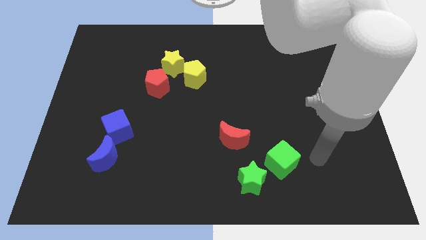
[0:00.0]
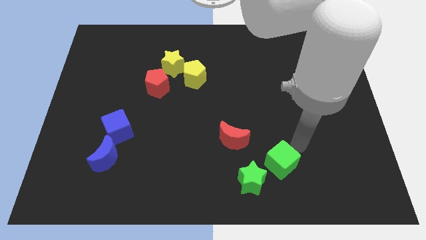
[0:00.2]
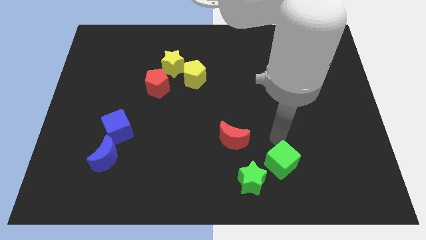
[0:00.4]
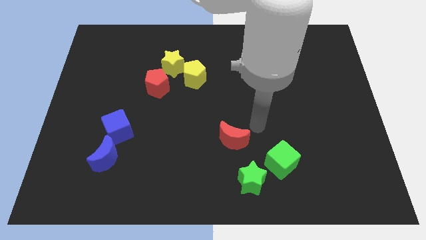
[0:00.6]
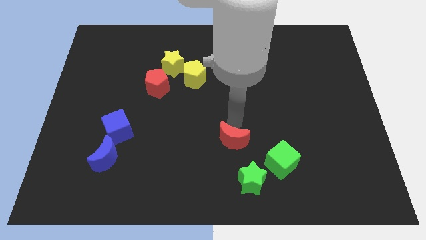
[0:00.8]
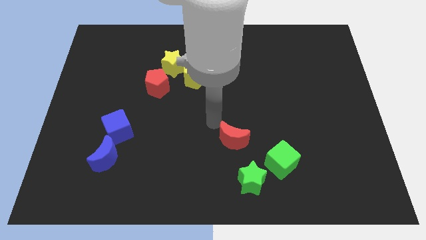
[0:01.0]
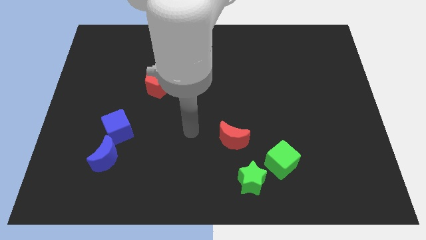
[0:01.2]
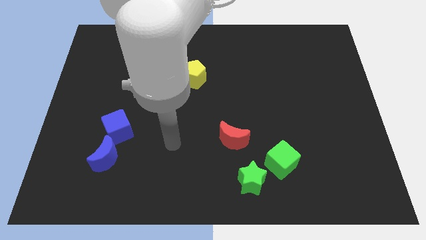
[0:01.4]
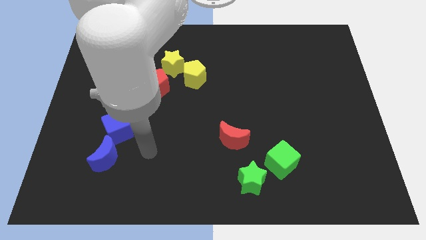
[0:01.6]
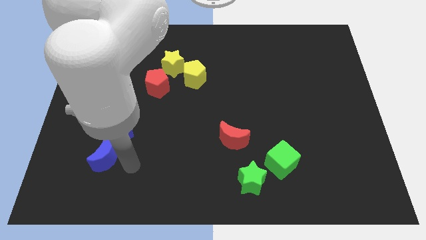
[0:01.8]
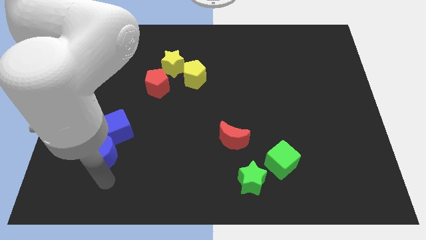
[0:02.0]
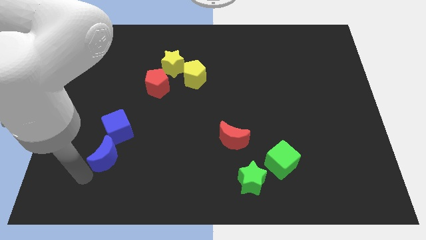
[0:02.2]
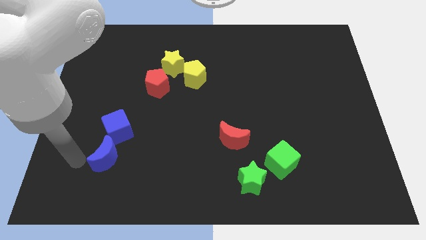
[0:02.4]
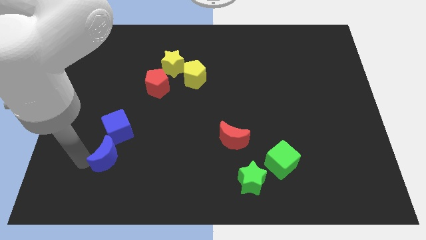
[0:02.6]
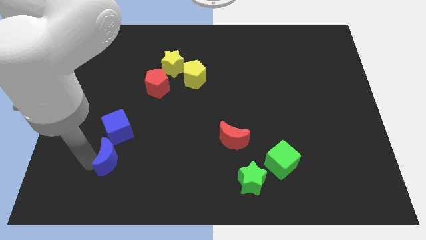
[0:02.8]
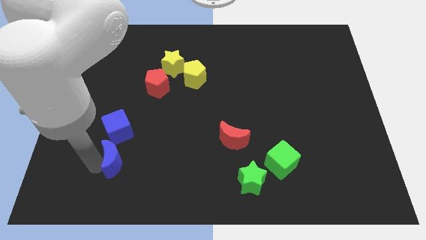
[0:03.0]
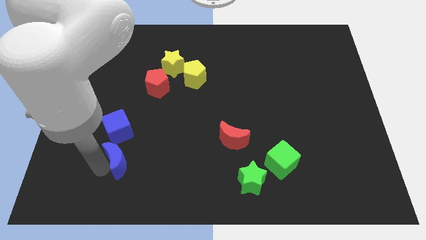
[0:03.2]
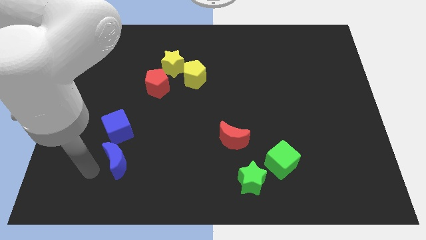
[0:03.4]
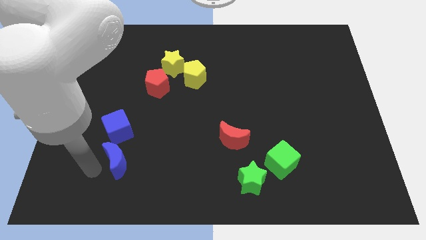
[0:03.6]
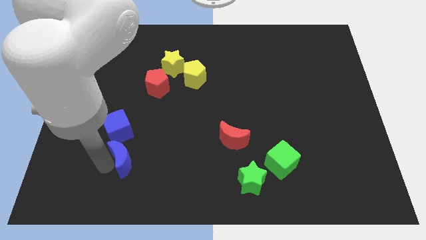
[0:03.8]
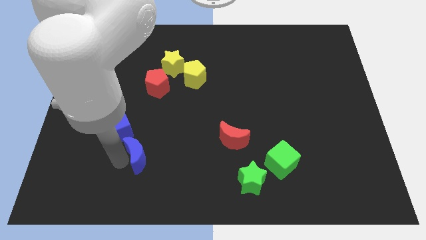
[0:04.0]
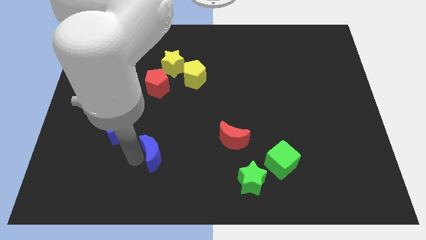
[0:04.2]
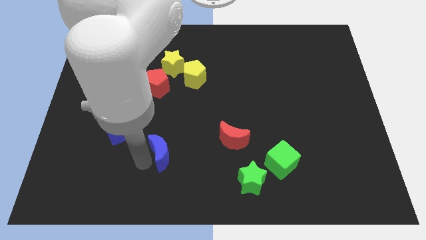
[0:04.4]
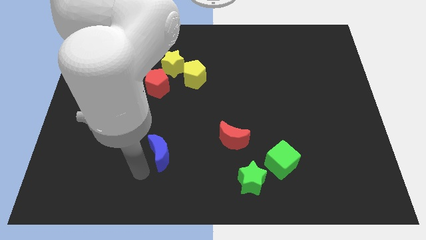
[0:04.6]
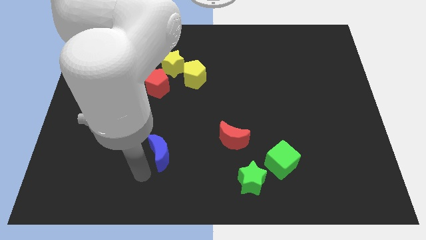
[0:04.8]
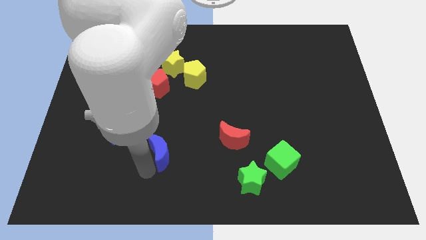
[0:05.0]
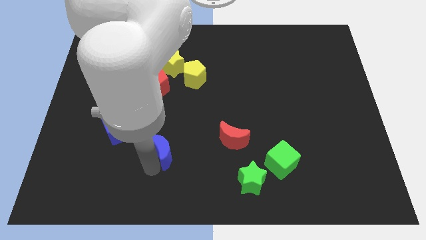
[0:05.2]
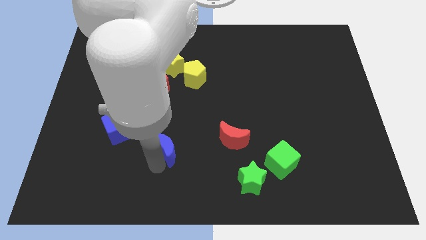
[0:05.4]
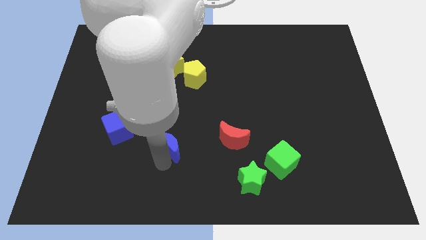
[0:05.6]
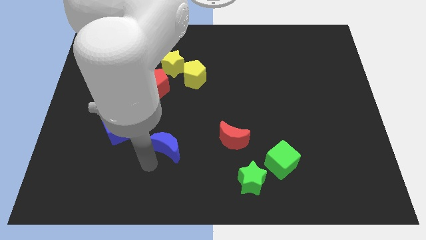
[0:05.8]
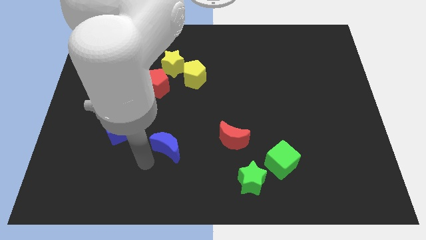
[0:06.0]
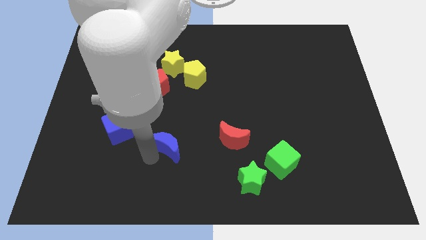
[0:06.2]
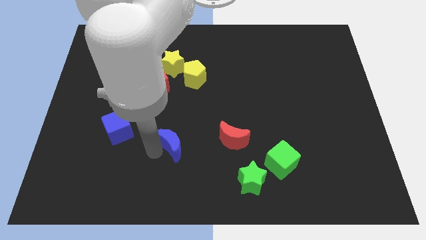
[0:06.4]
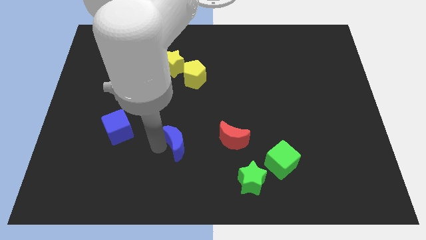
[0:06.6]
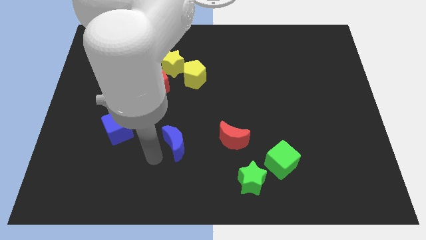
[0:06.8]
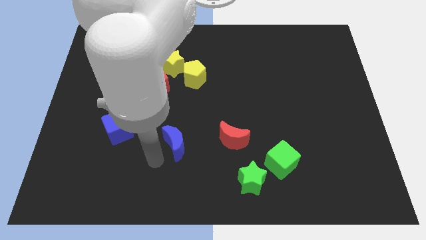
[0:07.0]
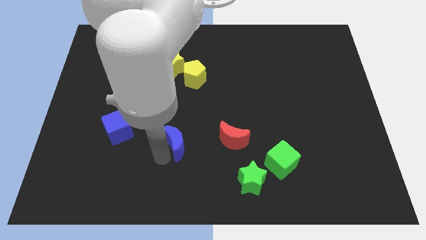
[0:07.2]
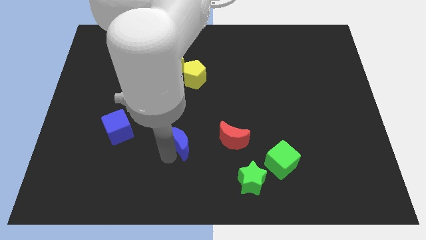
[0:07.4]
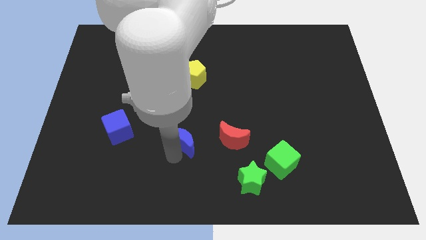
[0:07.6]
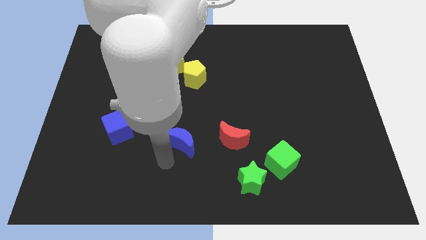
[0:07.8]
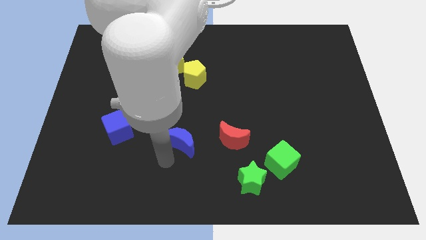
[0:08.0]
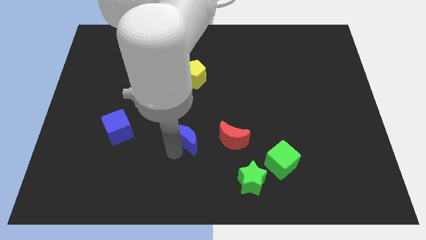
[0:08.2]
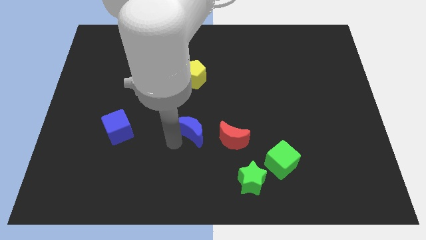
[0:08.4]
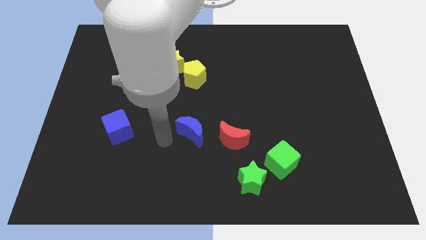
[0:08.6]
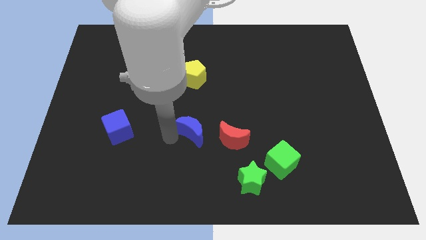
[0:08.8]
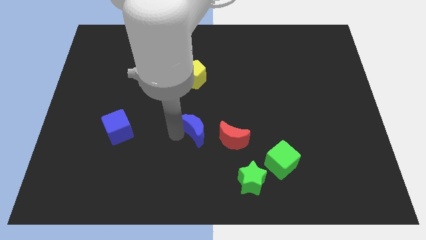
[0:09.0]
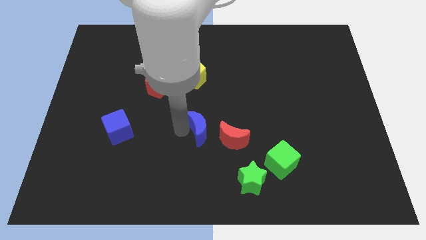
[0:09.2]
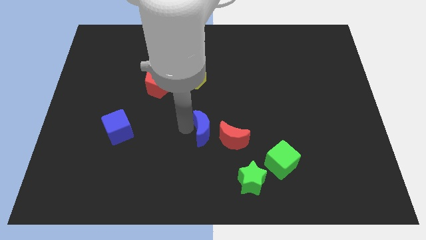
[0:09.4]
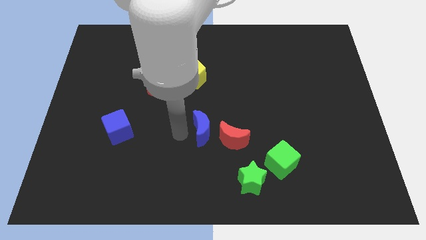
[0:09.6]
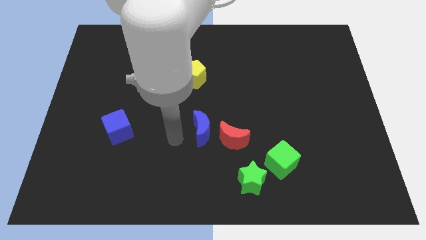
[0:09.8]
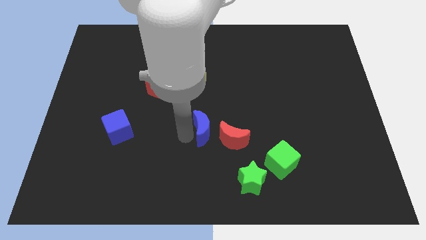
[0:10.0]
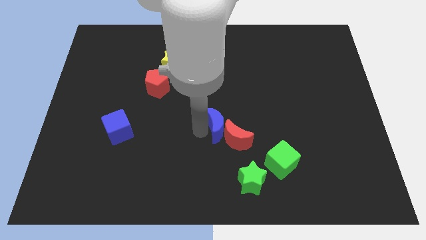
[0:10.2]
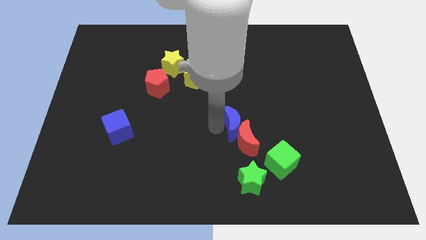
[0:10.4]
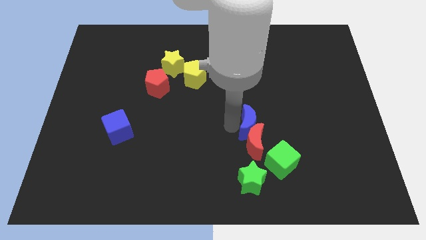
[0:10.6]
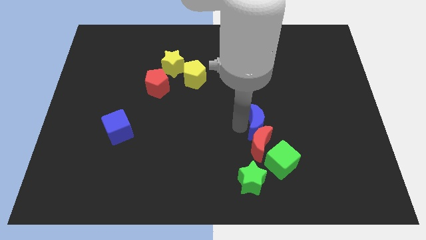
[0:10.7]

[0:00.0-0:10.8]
put the blue moon to the top of the green cube

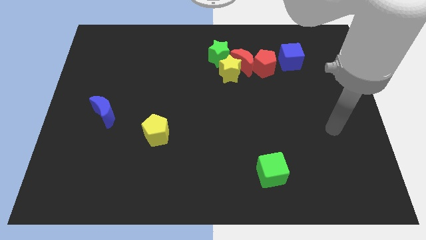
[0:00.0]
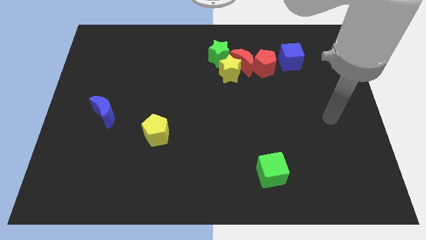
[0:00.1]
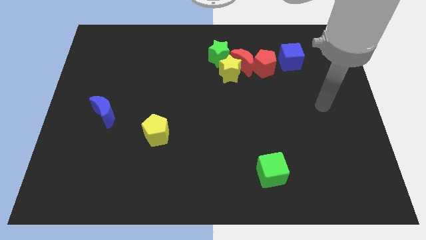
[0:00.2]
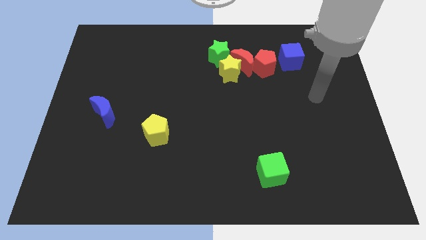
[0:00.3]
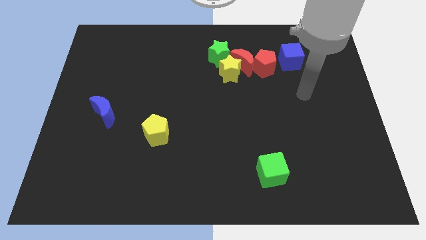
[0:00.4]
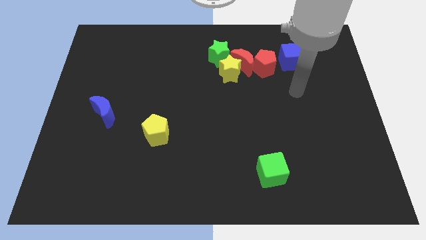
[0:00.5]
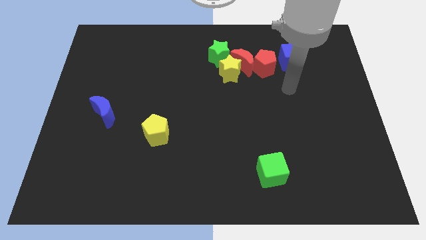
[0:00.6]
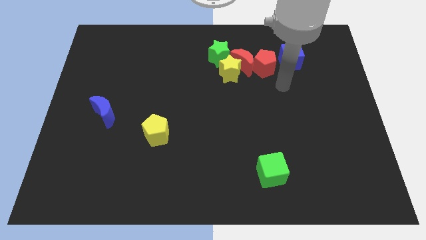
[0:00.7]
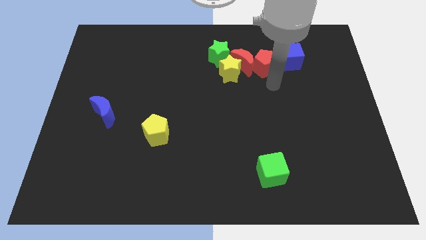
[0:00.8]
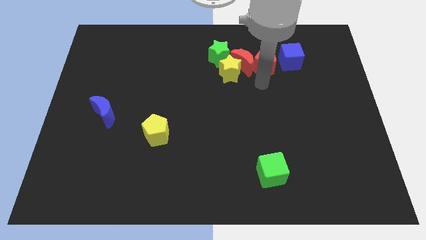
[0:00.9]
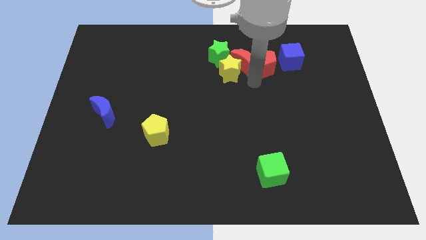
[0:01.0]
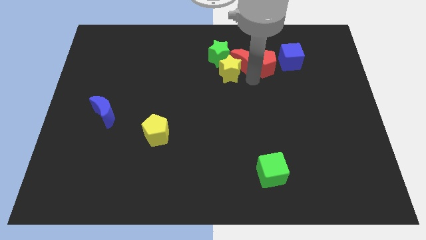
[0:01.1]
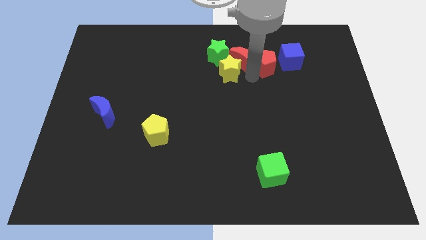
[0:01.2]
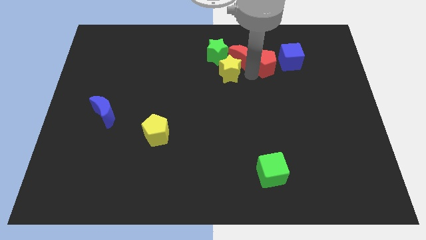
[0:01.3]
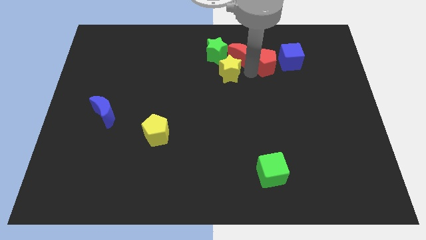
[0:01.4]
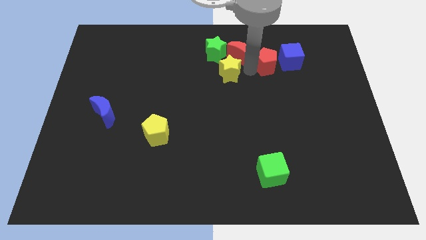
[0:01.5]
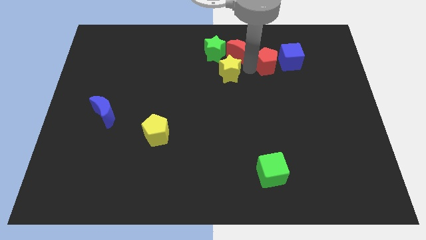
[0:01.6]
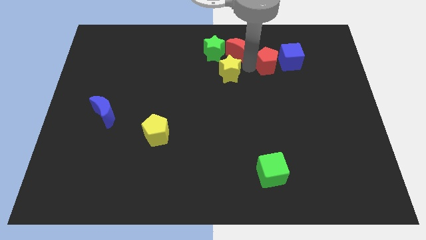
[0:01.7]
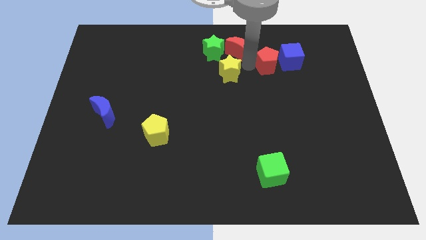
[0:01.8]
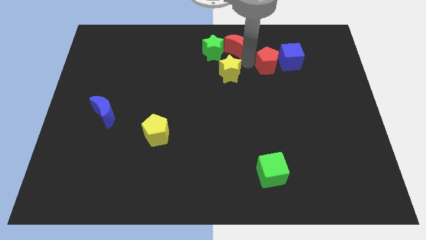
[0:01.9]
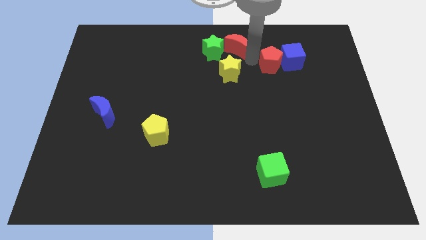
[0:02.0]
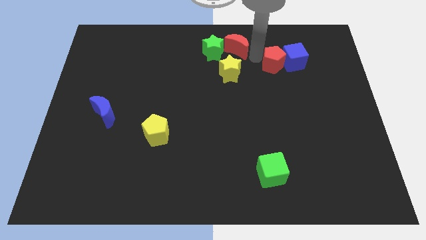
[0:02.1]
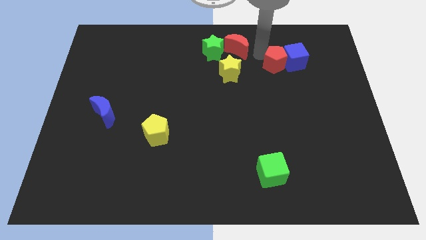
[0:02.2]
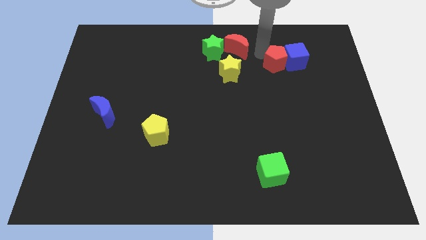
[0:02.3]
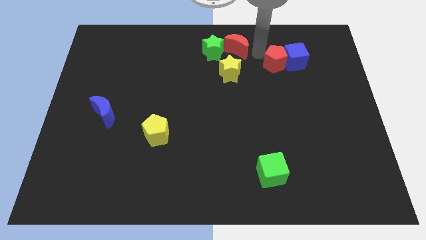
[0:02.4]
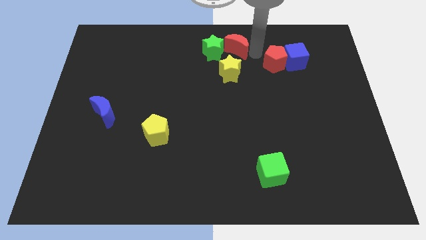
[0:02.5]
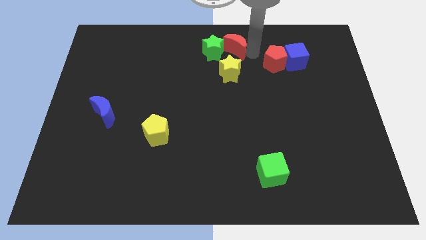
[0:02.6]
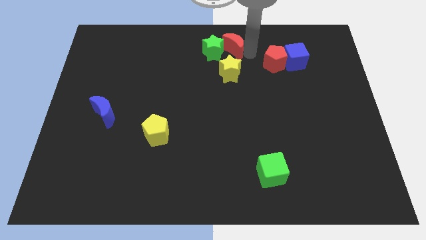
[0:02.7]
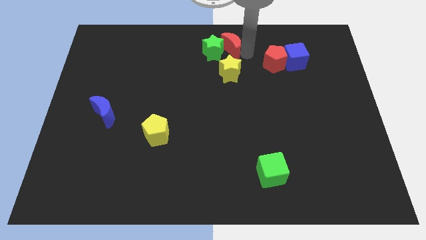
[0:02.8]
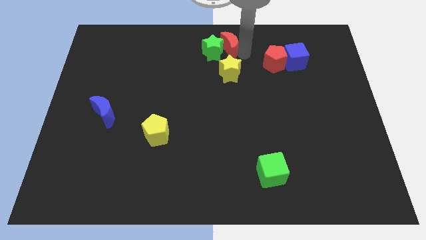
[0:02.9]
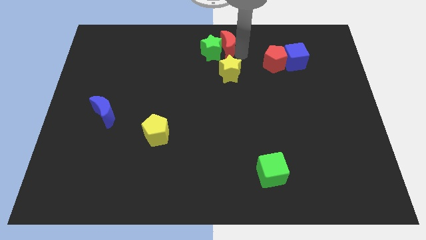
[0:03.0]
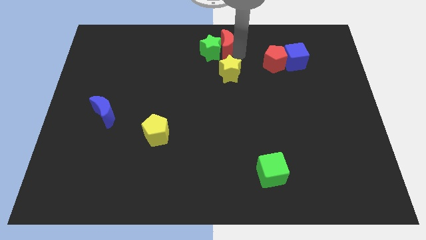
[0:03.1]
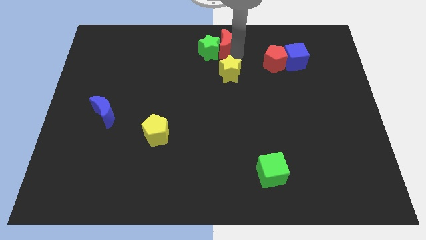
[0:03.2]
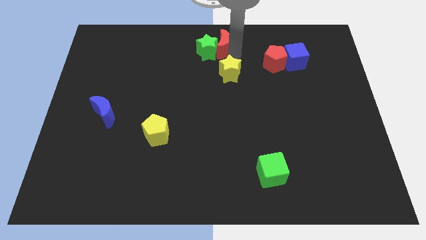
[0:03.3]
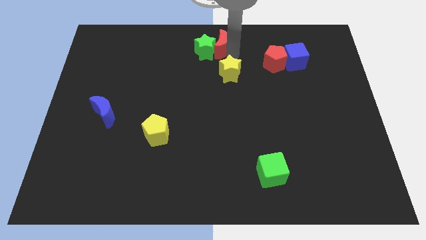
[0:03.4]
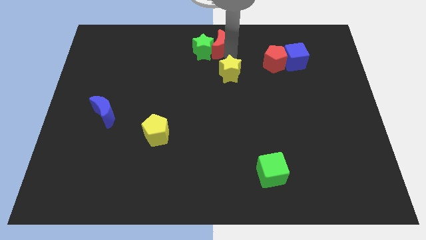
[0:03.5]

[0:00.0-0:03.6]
push the red moon diagonally up and to the left of the yellow star
